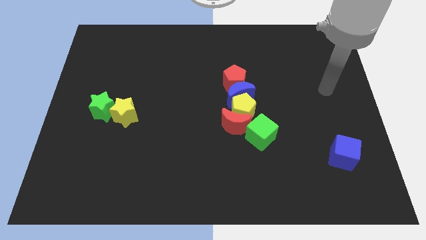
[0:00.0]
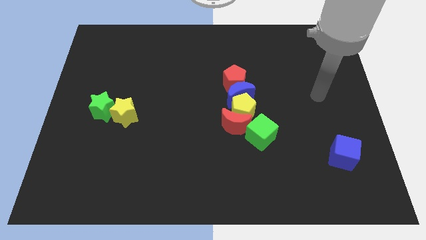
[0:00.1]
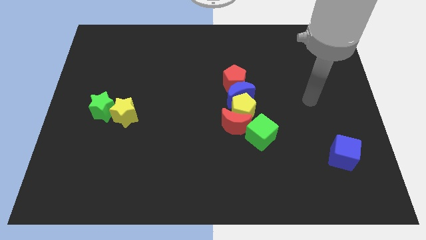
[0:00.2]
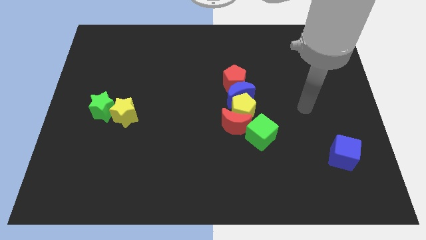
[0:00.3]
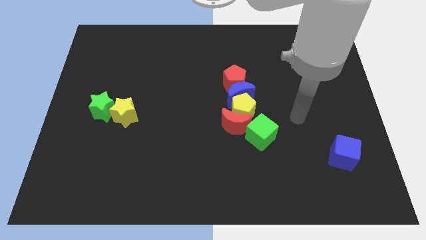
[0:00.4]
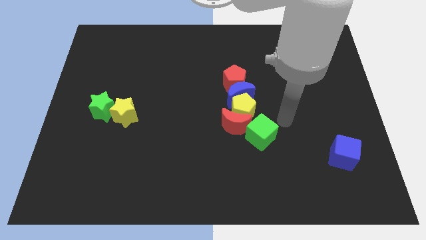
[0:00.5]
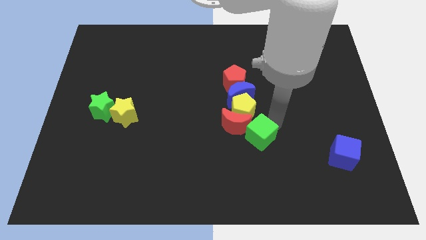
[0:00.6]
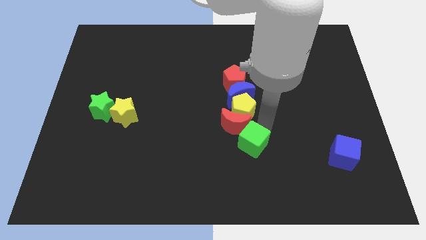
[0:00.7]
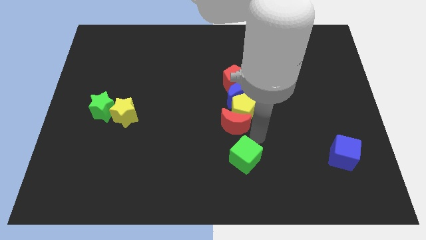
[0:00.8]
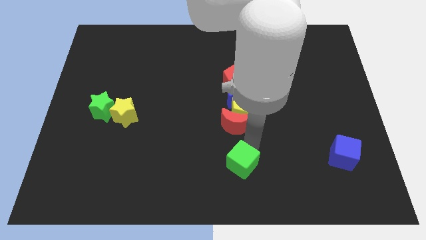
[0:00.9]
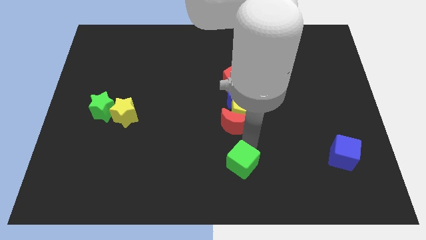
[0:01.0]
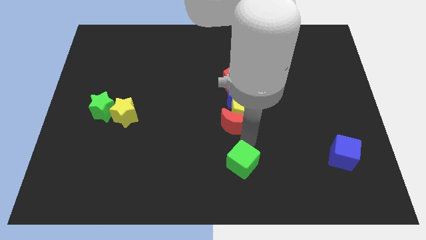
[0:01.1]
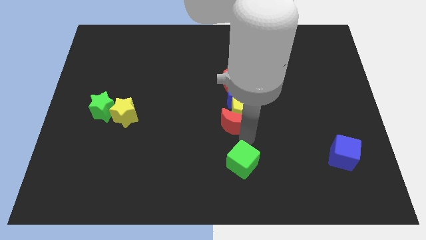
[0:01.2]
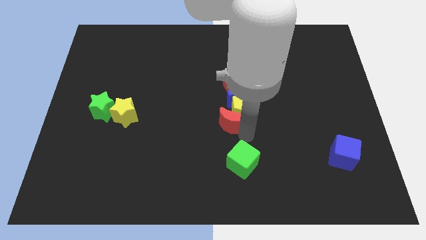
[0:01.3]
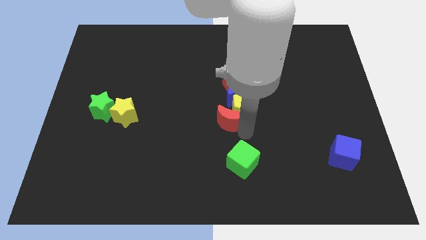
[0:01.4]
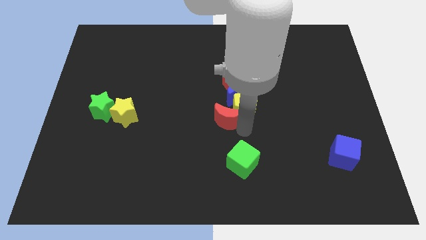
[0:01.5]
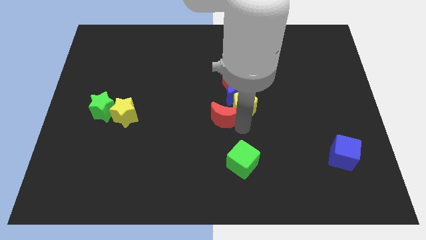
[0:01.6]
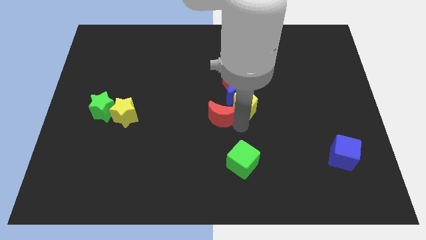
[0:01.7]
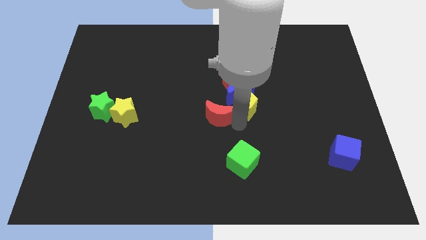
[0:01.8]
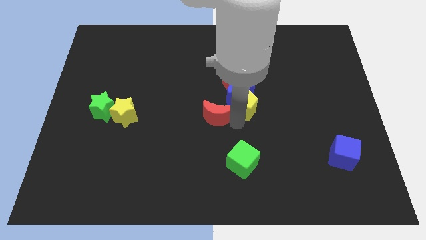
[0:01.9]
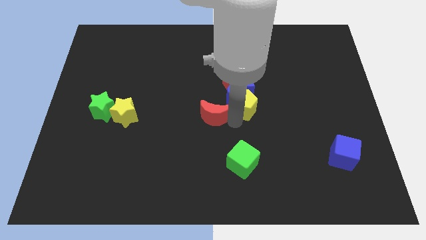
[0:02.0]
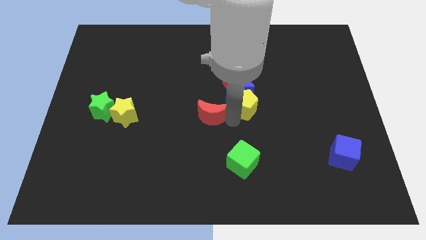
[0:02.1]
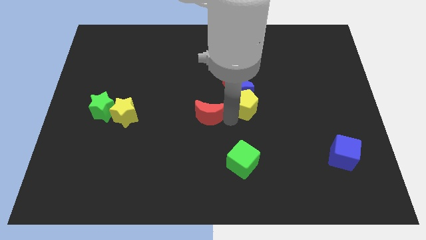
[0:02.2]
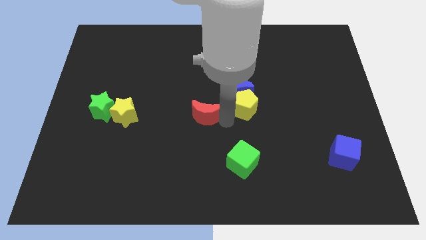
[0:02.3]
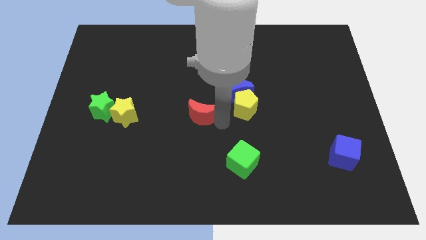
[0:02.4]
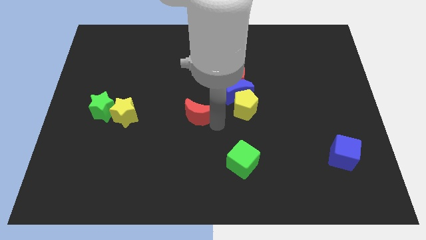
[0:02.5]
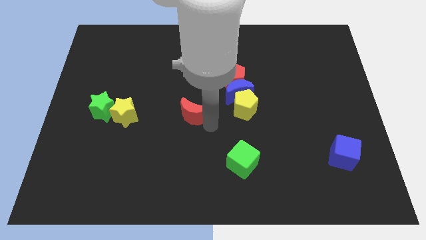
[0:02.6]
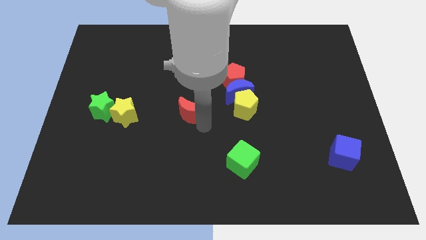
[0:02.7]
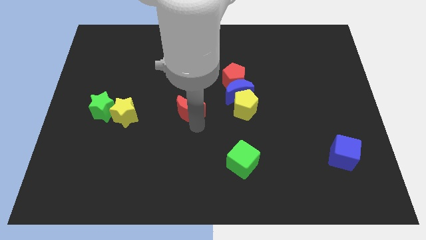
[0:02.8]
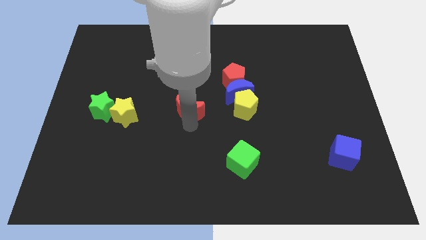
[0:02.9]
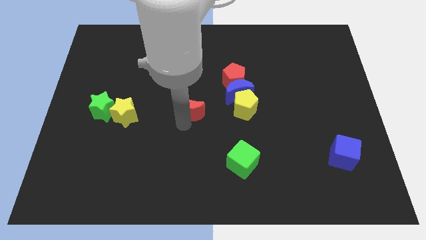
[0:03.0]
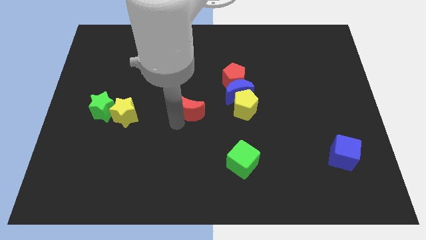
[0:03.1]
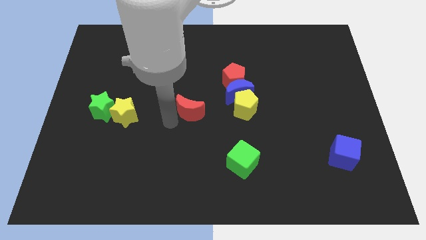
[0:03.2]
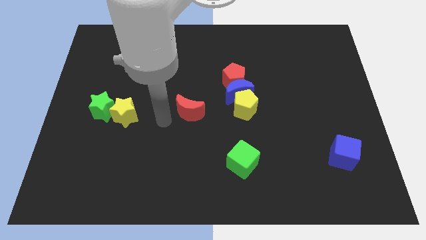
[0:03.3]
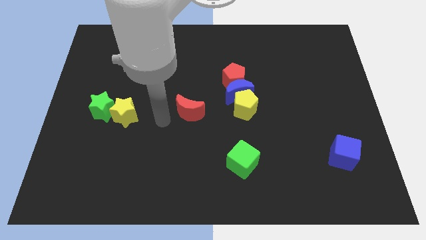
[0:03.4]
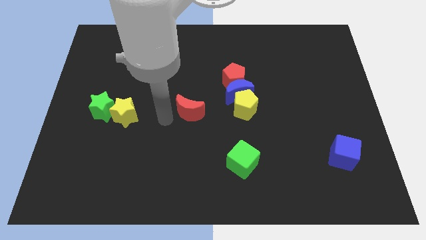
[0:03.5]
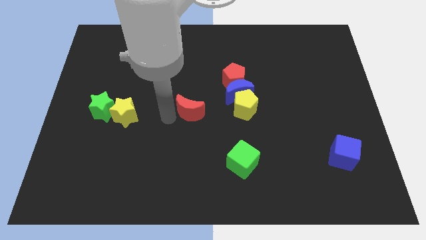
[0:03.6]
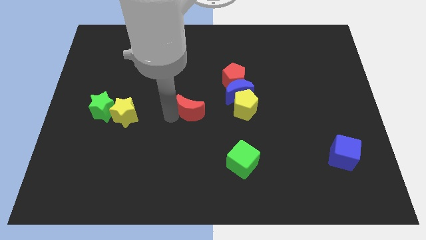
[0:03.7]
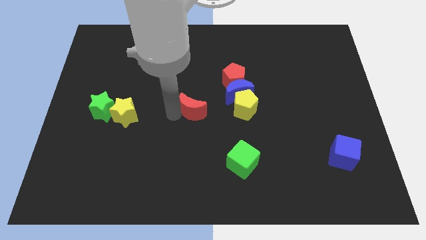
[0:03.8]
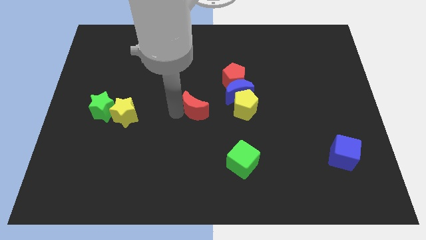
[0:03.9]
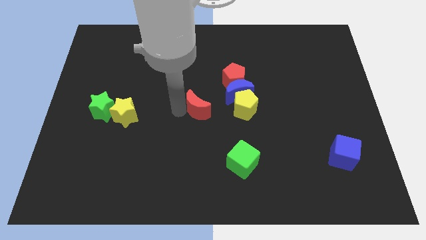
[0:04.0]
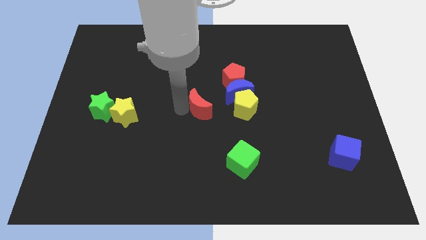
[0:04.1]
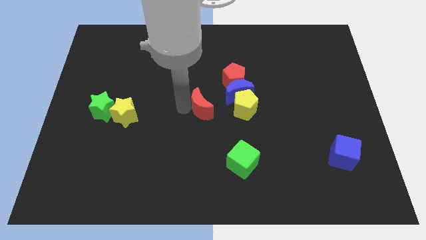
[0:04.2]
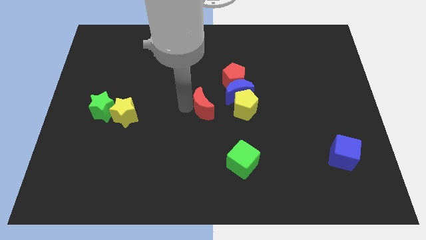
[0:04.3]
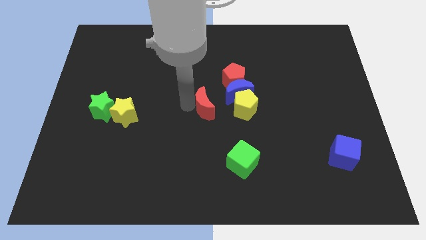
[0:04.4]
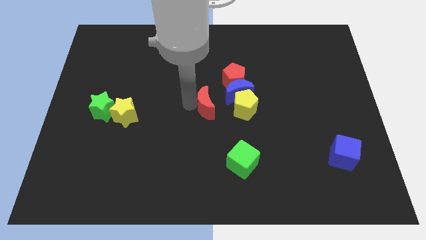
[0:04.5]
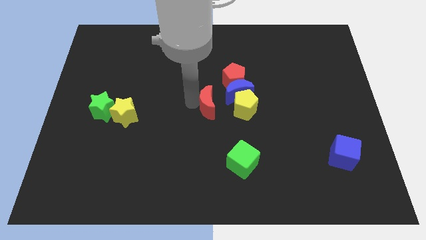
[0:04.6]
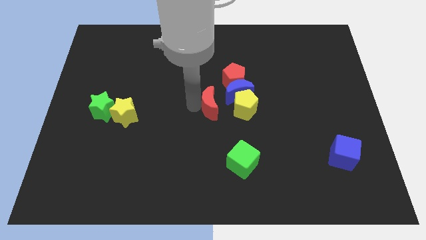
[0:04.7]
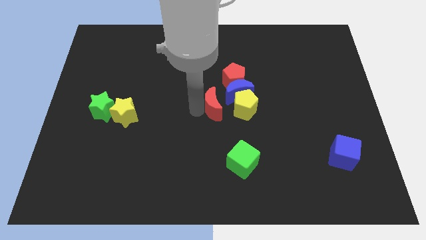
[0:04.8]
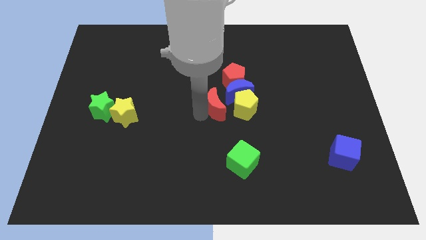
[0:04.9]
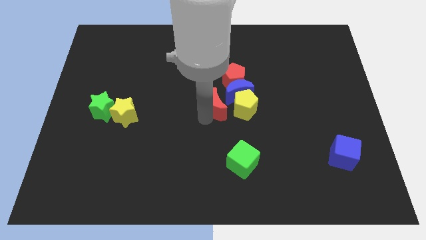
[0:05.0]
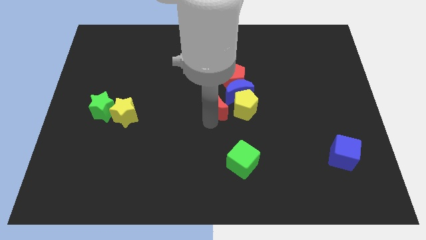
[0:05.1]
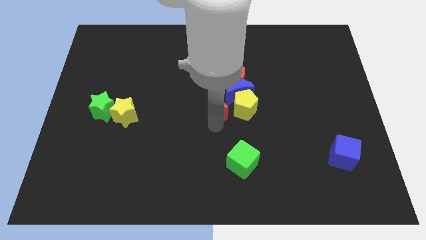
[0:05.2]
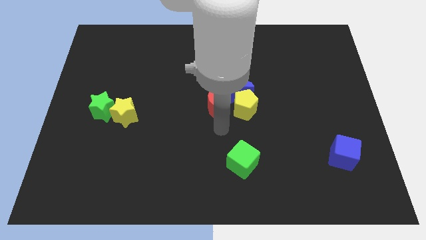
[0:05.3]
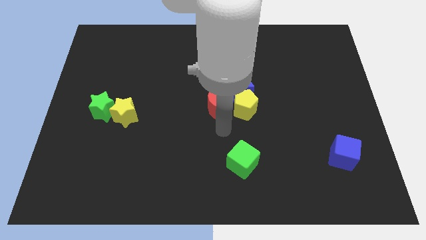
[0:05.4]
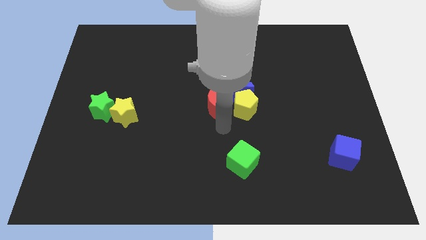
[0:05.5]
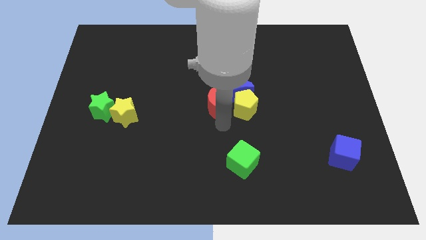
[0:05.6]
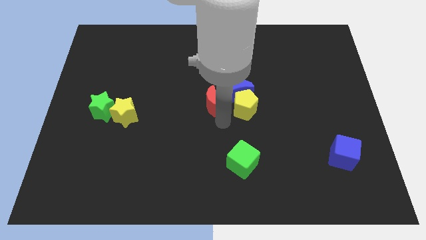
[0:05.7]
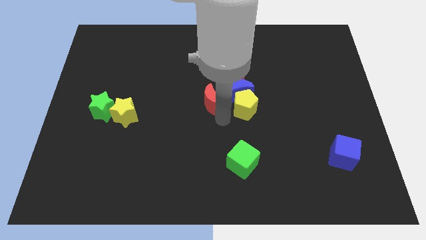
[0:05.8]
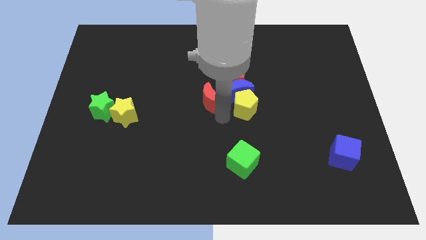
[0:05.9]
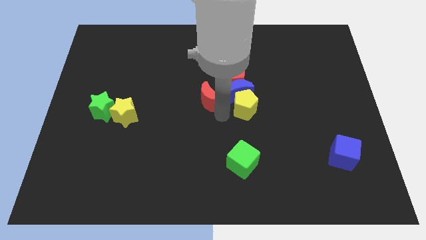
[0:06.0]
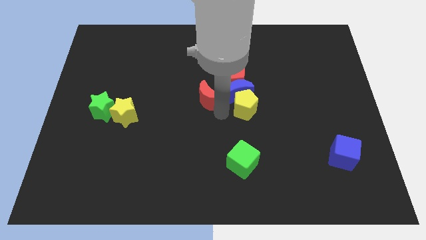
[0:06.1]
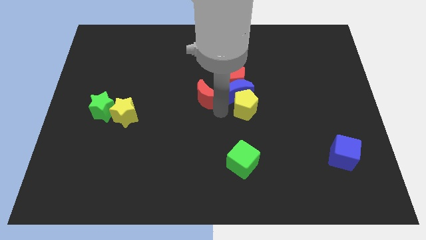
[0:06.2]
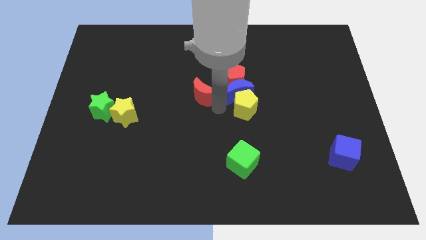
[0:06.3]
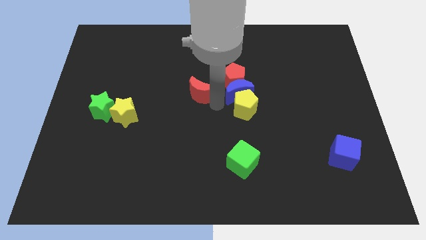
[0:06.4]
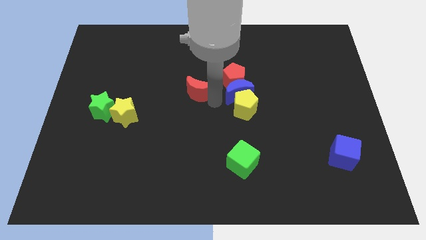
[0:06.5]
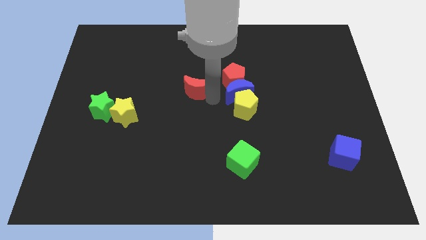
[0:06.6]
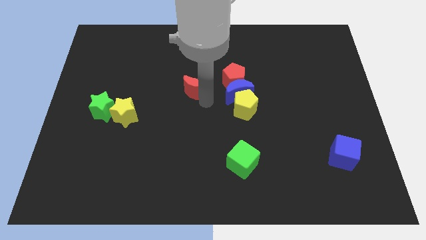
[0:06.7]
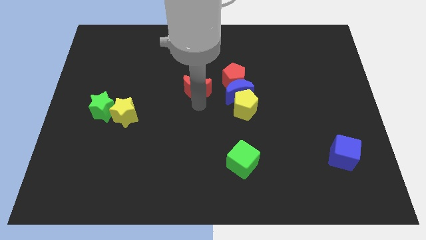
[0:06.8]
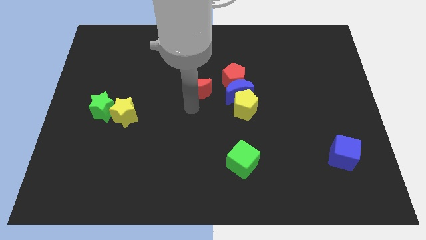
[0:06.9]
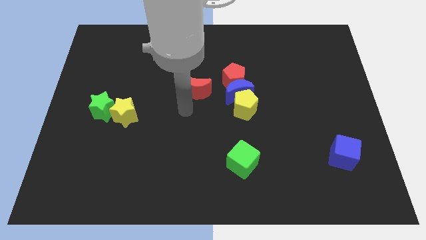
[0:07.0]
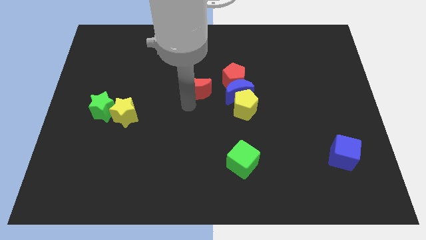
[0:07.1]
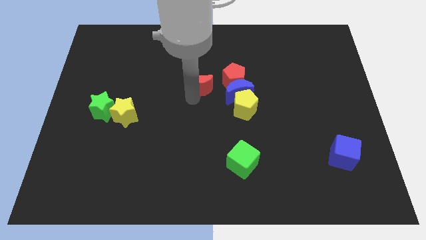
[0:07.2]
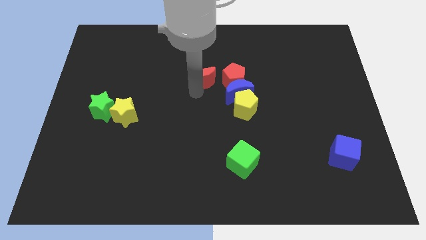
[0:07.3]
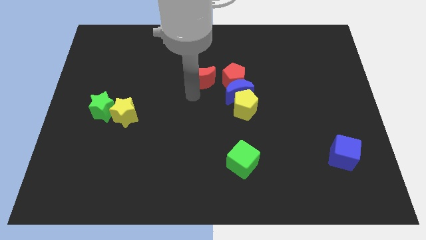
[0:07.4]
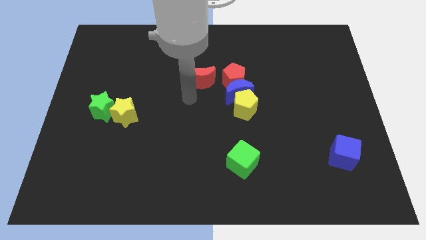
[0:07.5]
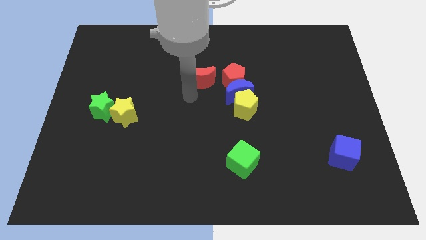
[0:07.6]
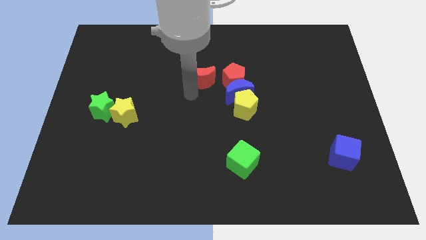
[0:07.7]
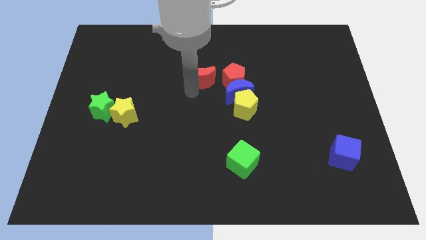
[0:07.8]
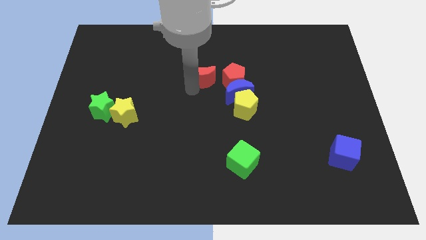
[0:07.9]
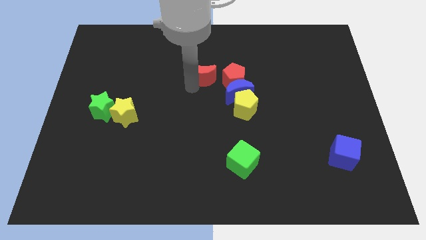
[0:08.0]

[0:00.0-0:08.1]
move the red moon to the top left side of the red pentagon
